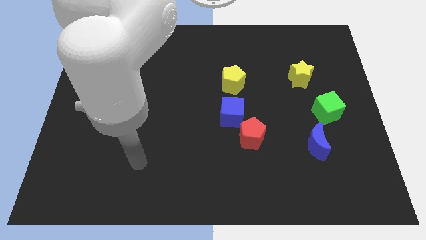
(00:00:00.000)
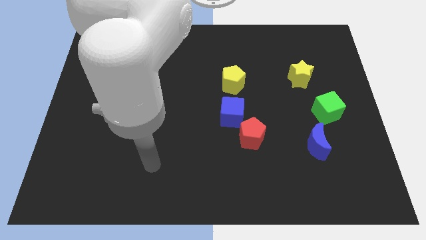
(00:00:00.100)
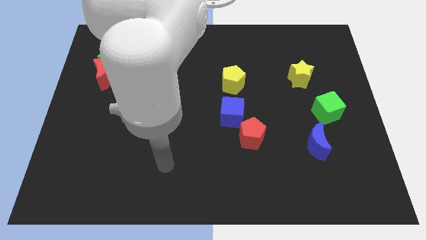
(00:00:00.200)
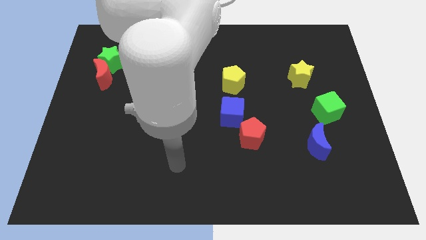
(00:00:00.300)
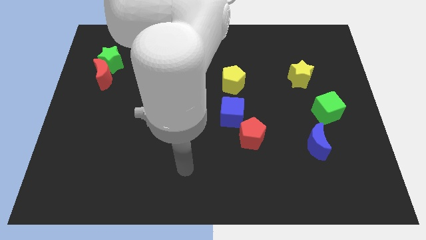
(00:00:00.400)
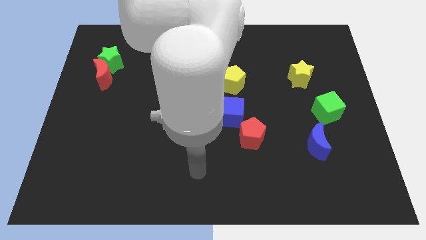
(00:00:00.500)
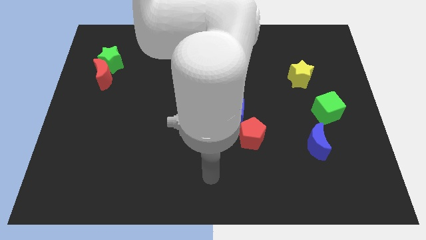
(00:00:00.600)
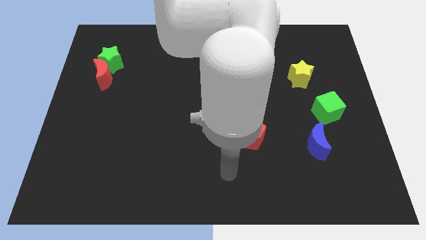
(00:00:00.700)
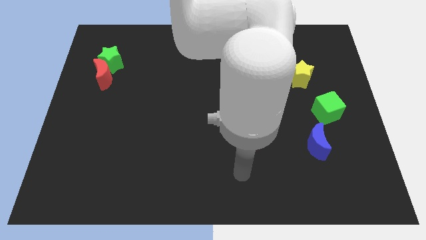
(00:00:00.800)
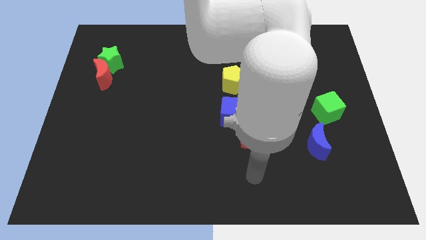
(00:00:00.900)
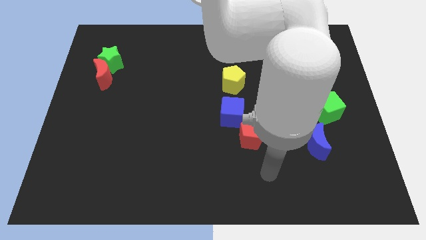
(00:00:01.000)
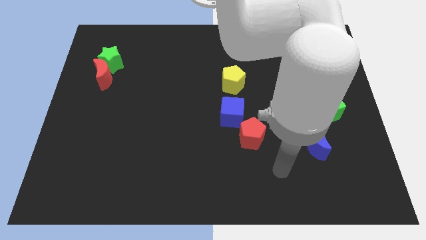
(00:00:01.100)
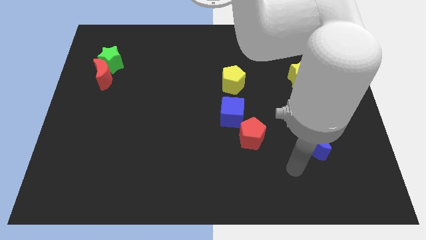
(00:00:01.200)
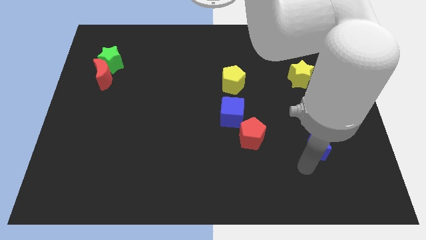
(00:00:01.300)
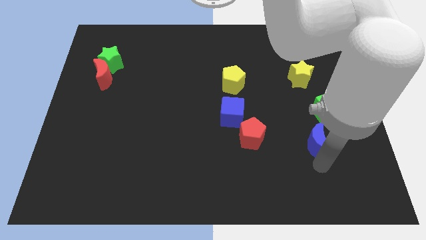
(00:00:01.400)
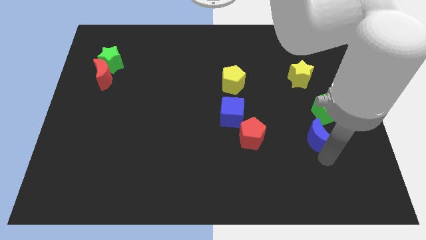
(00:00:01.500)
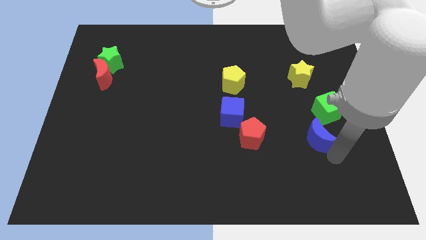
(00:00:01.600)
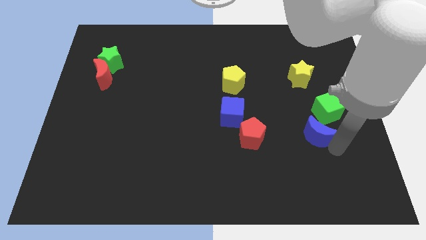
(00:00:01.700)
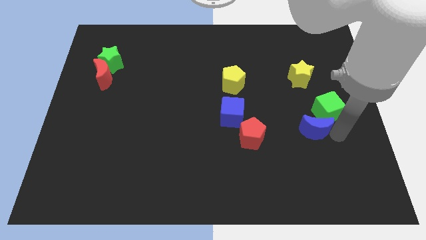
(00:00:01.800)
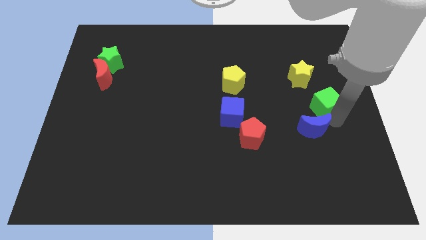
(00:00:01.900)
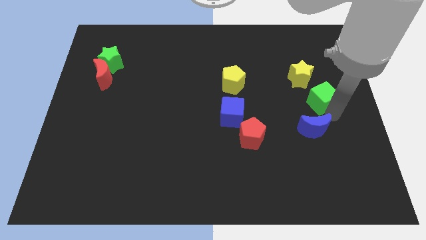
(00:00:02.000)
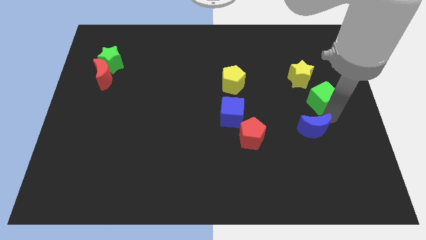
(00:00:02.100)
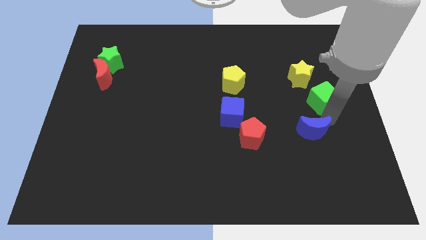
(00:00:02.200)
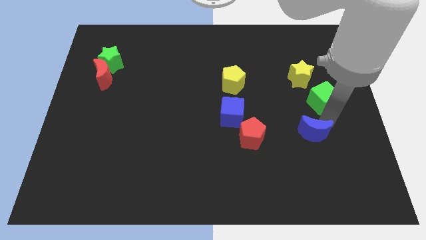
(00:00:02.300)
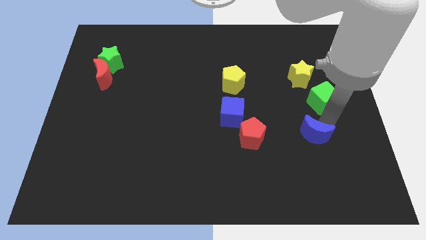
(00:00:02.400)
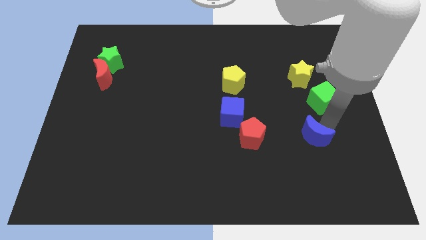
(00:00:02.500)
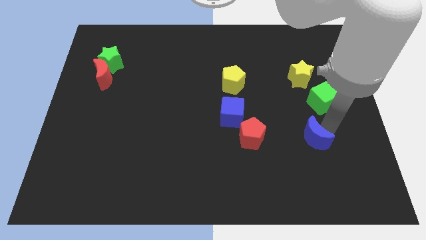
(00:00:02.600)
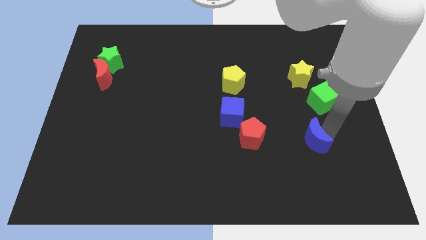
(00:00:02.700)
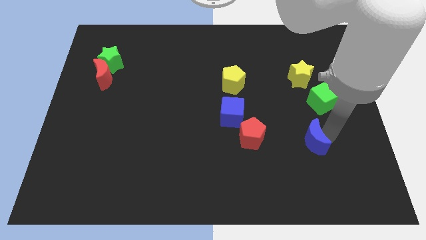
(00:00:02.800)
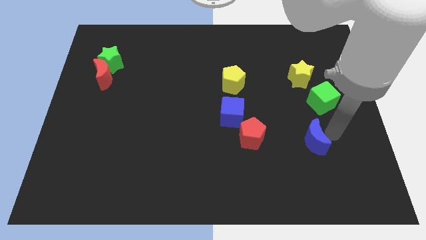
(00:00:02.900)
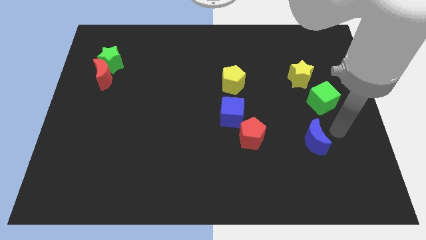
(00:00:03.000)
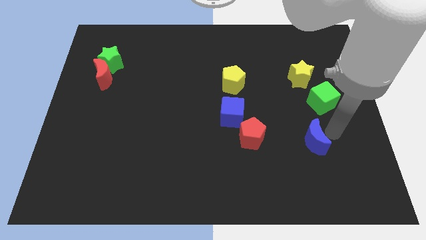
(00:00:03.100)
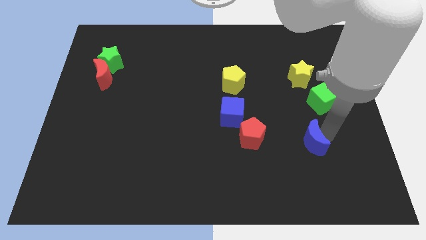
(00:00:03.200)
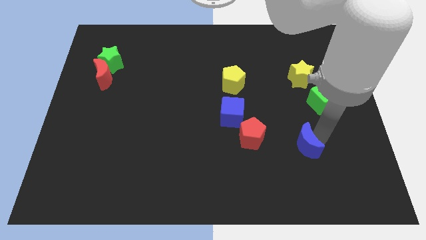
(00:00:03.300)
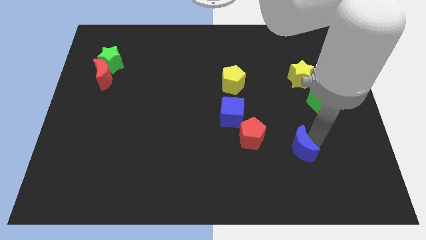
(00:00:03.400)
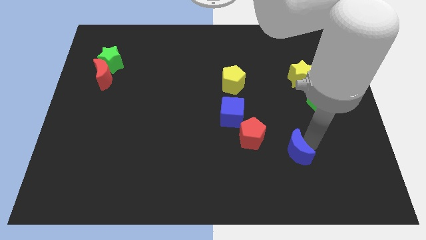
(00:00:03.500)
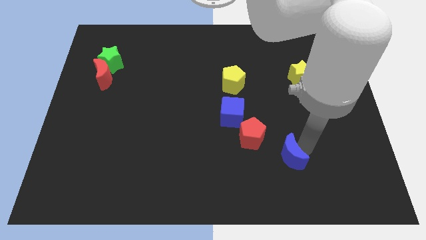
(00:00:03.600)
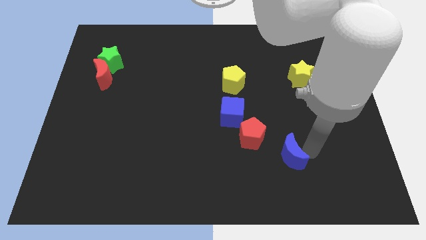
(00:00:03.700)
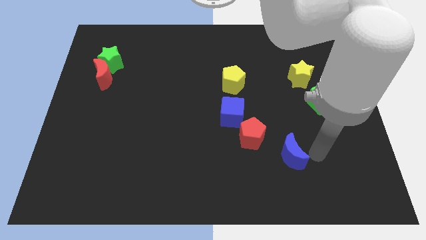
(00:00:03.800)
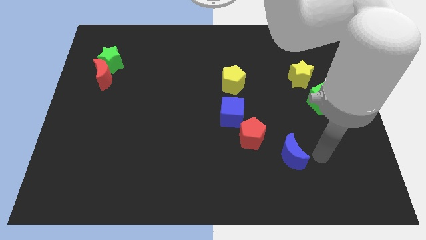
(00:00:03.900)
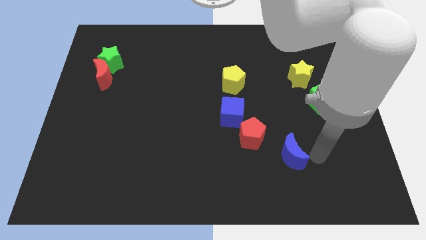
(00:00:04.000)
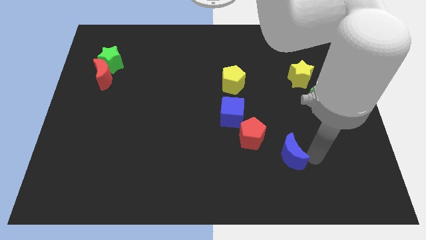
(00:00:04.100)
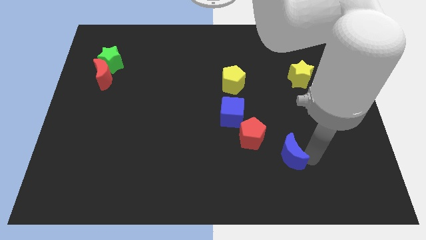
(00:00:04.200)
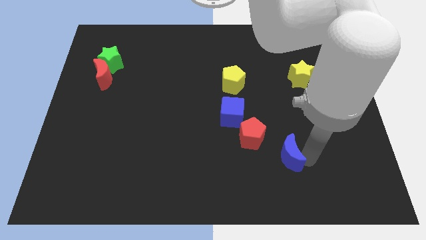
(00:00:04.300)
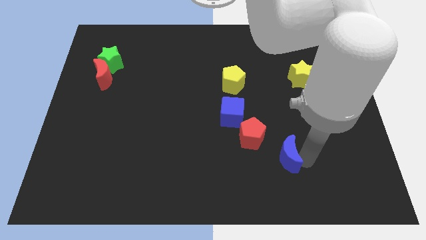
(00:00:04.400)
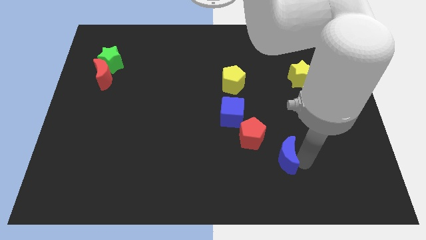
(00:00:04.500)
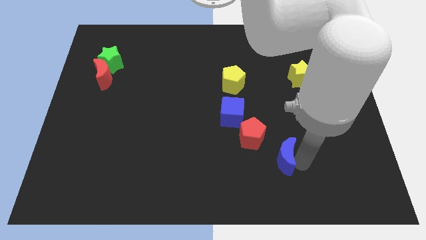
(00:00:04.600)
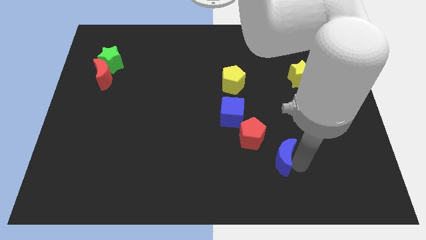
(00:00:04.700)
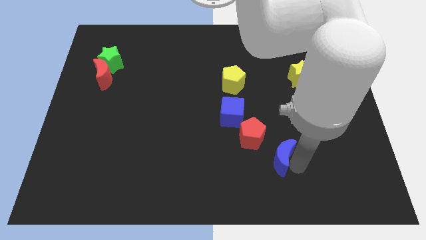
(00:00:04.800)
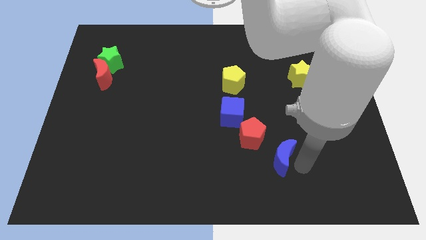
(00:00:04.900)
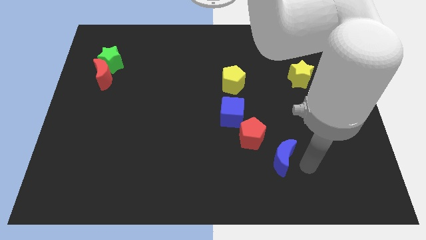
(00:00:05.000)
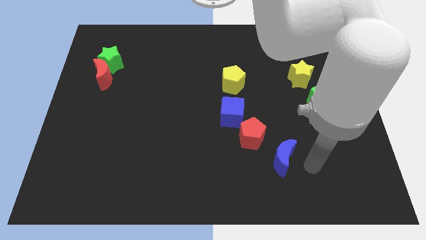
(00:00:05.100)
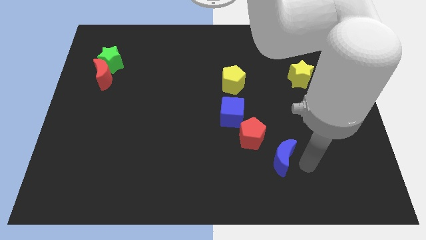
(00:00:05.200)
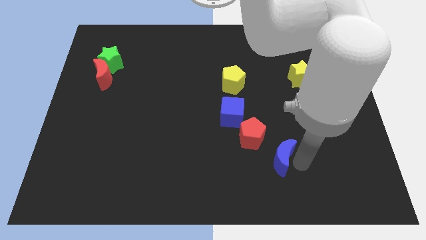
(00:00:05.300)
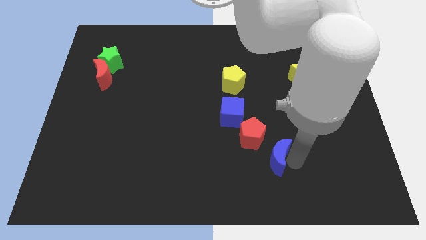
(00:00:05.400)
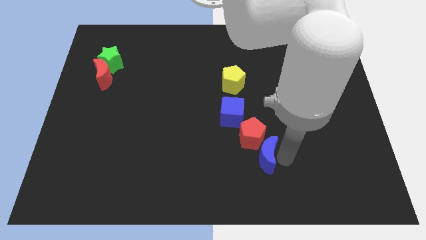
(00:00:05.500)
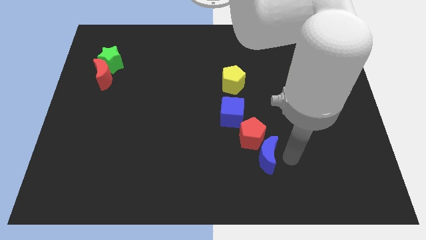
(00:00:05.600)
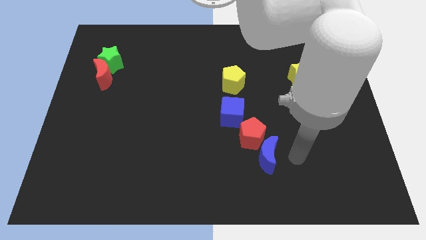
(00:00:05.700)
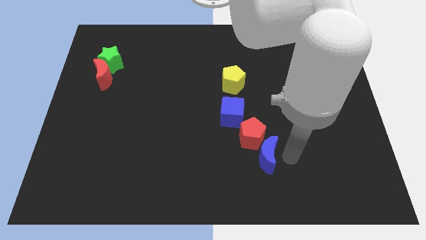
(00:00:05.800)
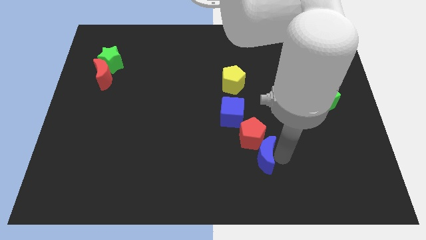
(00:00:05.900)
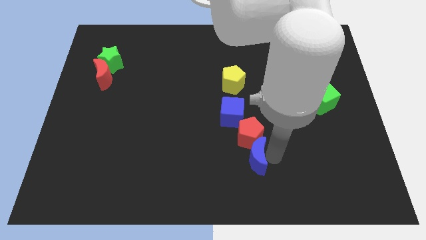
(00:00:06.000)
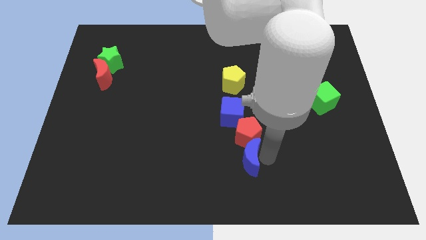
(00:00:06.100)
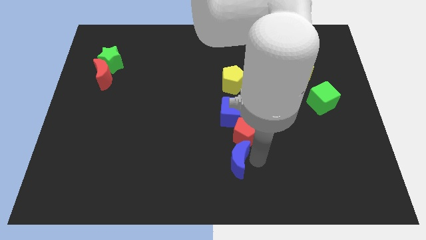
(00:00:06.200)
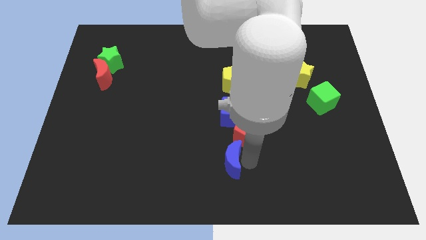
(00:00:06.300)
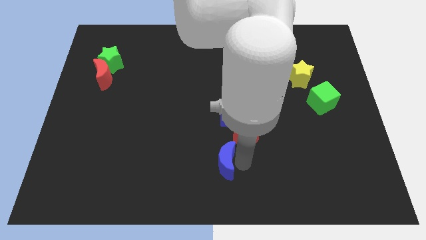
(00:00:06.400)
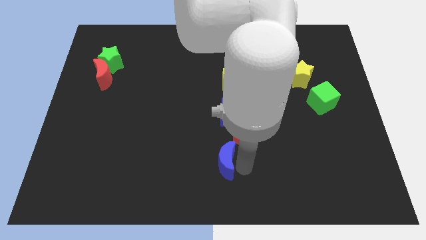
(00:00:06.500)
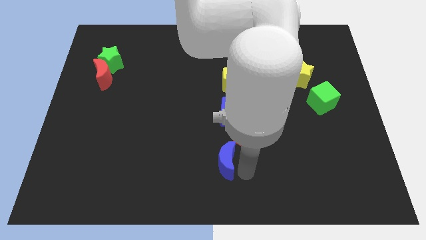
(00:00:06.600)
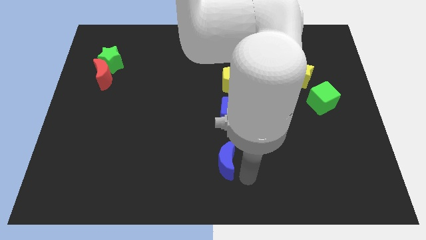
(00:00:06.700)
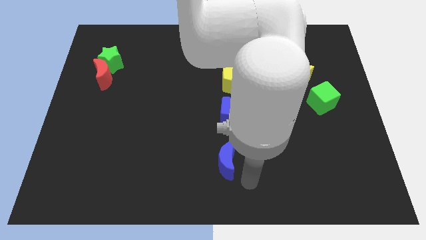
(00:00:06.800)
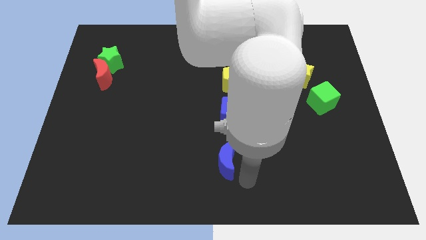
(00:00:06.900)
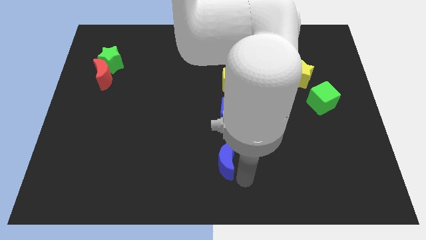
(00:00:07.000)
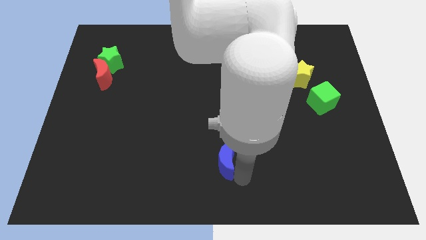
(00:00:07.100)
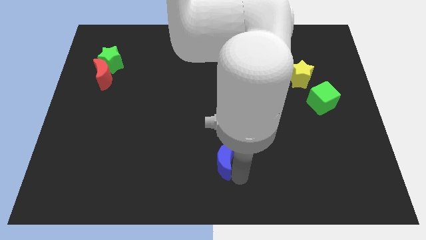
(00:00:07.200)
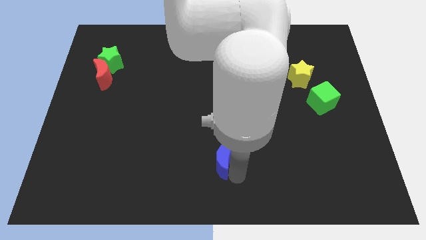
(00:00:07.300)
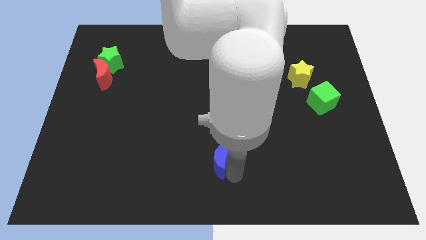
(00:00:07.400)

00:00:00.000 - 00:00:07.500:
slide the blue moon to the left

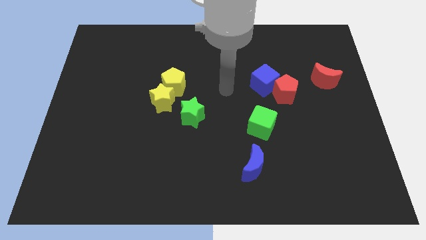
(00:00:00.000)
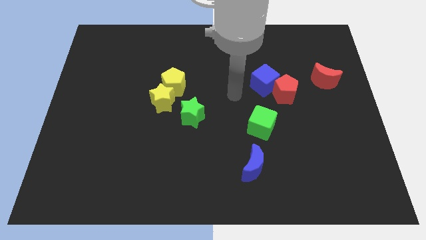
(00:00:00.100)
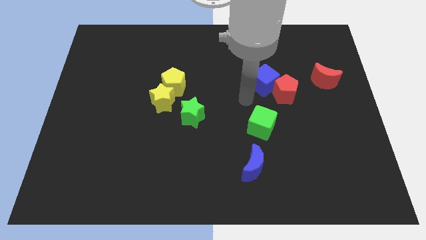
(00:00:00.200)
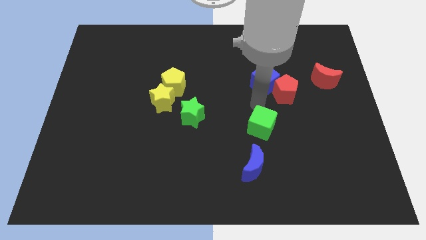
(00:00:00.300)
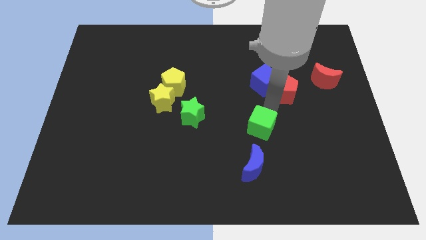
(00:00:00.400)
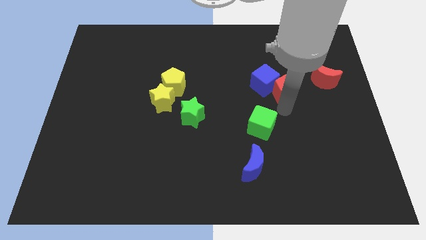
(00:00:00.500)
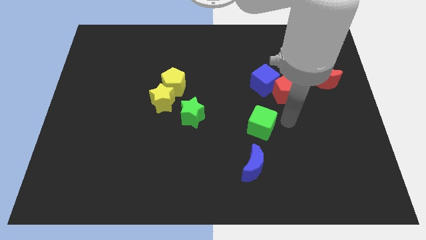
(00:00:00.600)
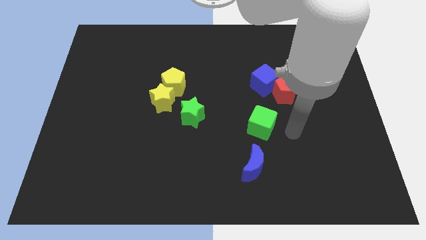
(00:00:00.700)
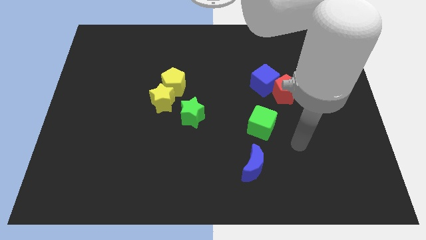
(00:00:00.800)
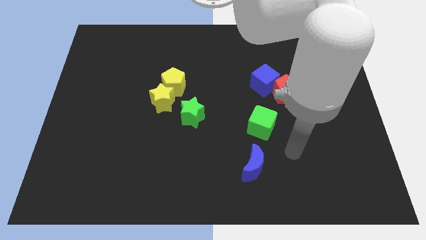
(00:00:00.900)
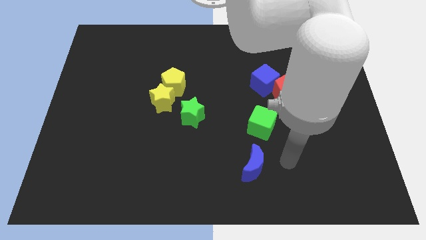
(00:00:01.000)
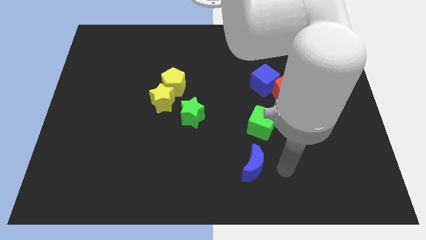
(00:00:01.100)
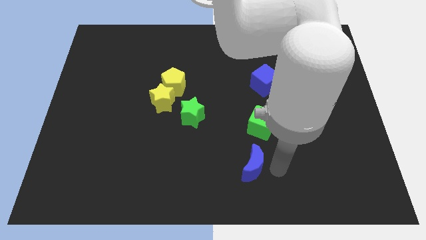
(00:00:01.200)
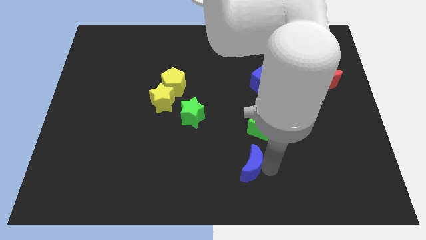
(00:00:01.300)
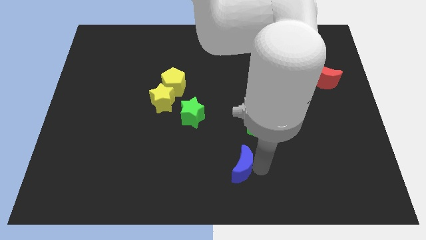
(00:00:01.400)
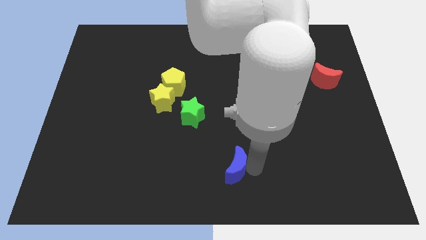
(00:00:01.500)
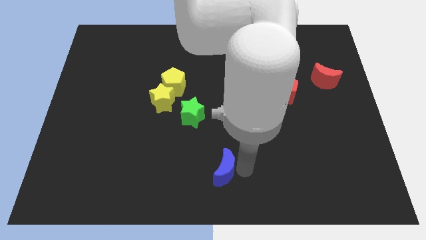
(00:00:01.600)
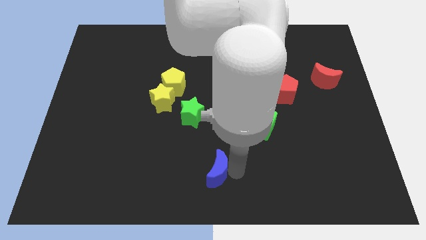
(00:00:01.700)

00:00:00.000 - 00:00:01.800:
slide the blue moon a little left
